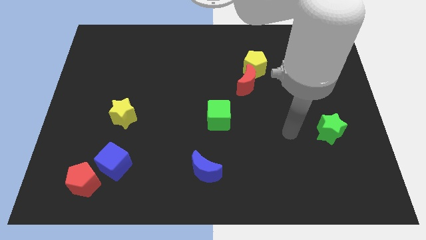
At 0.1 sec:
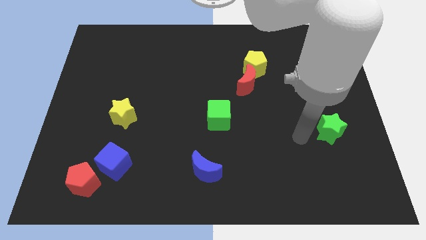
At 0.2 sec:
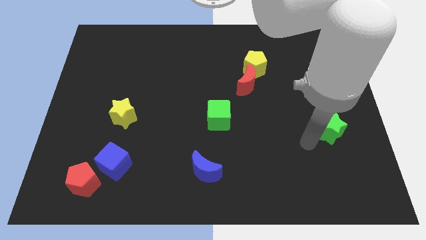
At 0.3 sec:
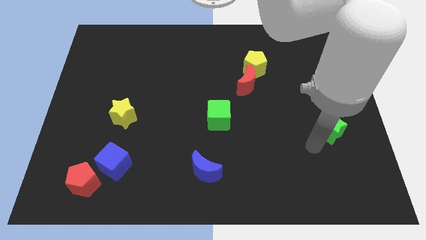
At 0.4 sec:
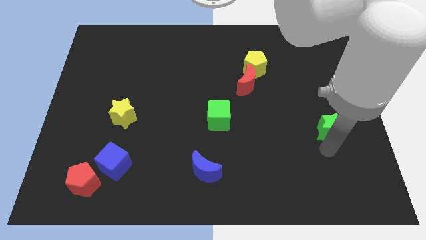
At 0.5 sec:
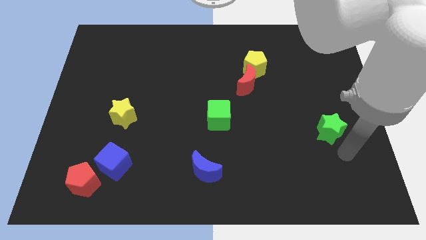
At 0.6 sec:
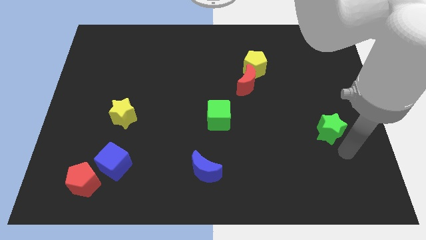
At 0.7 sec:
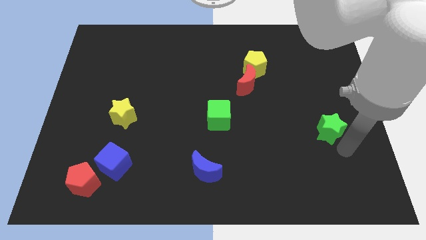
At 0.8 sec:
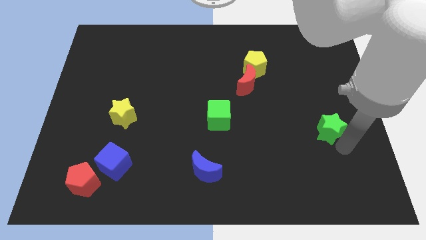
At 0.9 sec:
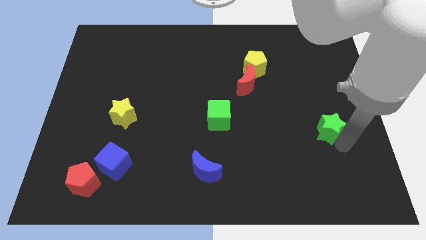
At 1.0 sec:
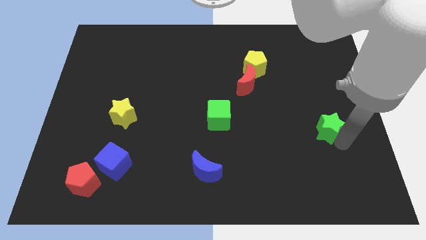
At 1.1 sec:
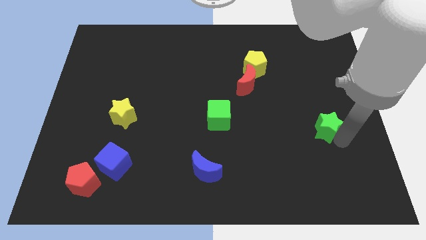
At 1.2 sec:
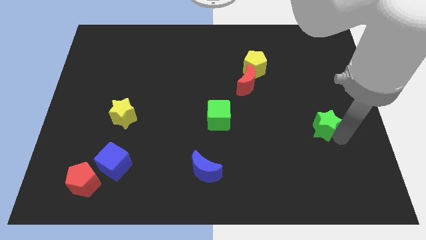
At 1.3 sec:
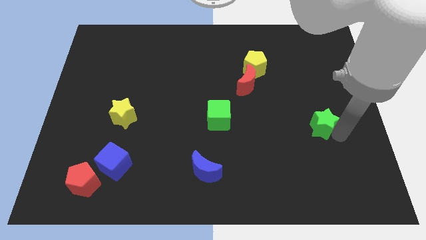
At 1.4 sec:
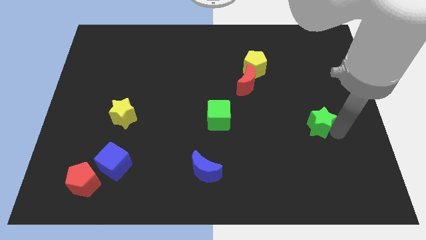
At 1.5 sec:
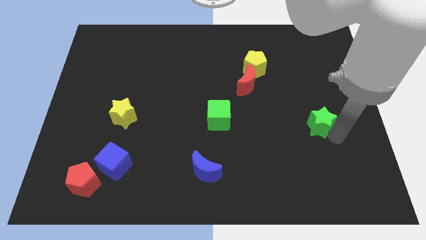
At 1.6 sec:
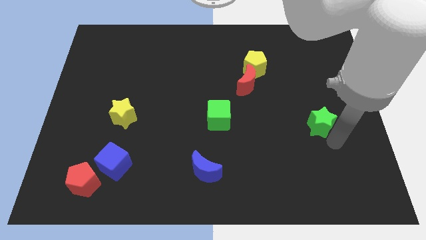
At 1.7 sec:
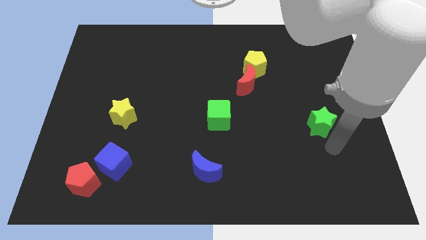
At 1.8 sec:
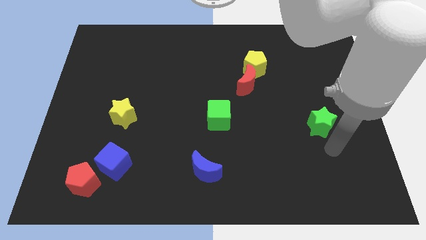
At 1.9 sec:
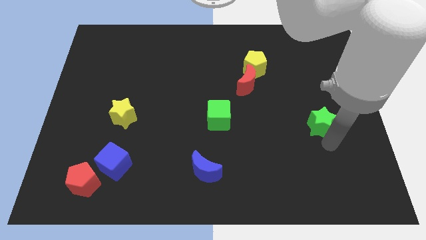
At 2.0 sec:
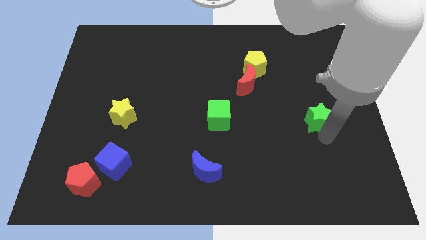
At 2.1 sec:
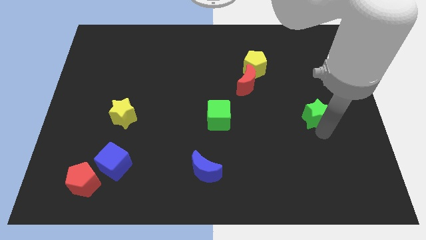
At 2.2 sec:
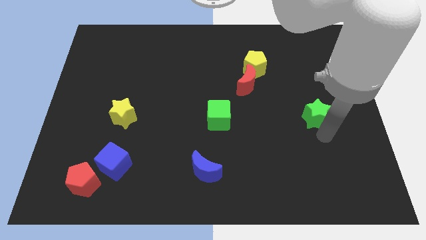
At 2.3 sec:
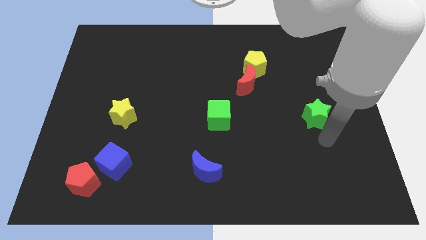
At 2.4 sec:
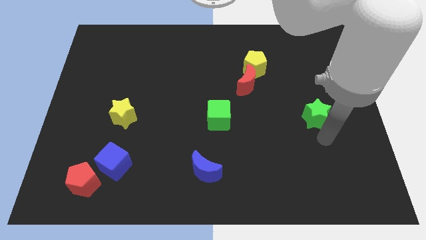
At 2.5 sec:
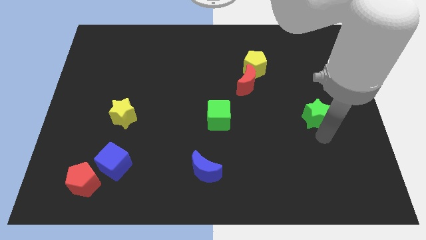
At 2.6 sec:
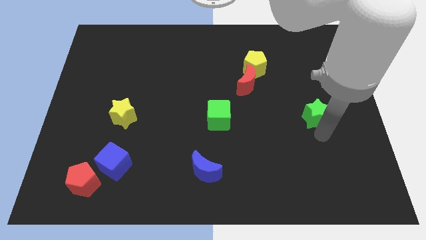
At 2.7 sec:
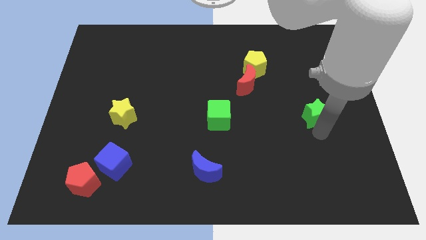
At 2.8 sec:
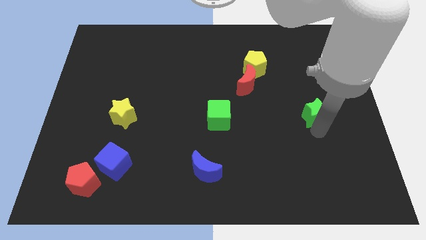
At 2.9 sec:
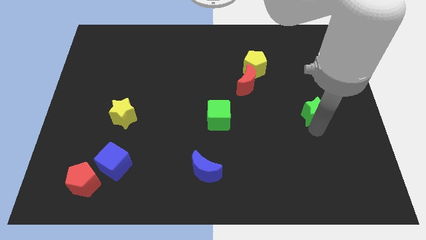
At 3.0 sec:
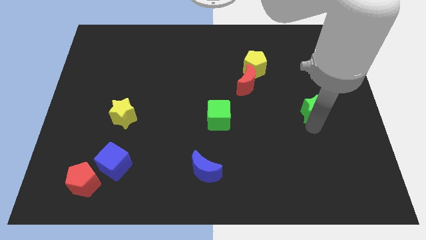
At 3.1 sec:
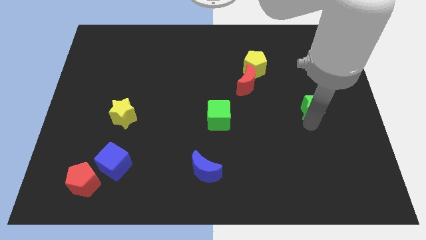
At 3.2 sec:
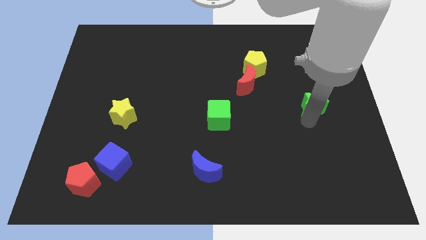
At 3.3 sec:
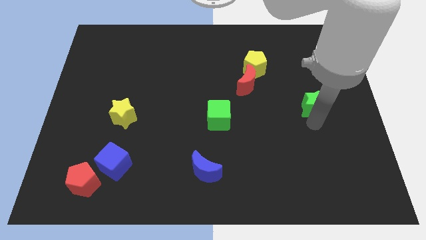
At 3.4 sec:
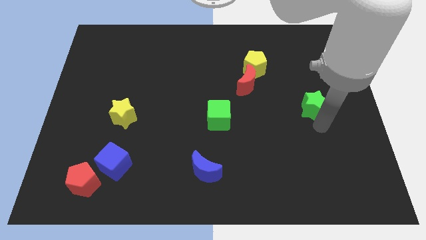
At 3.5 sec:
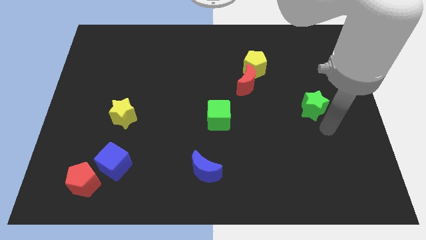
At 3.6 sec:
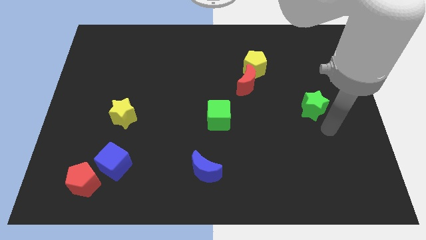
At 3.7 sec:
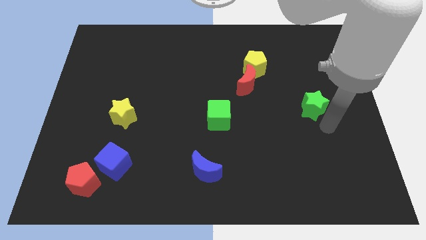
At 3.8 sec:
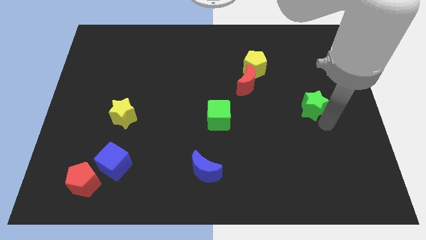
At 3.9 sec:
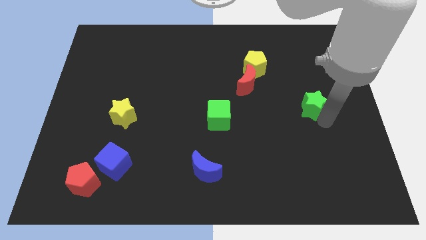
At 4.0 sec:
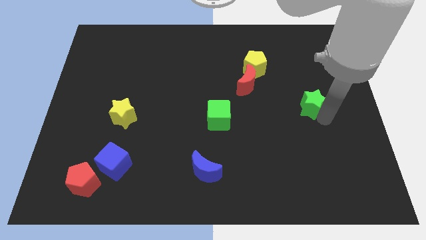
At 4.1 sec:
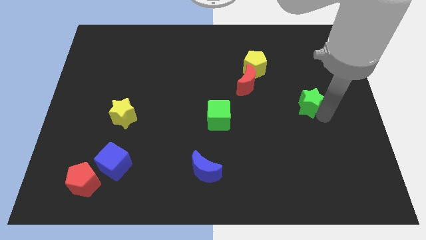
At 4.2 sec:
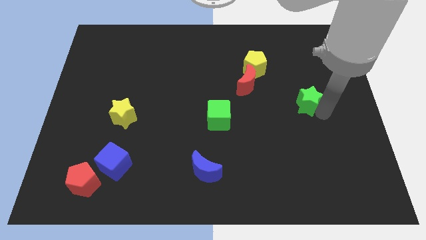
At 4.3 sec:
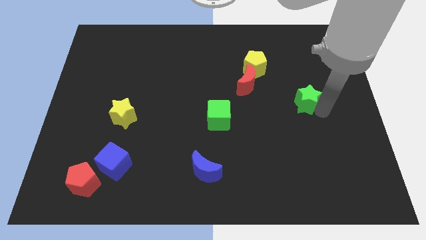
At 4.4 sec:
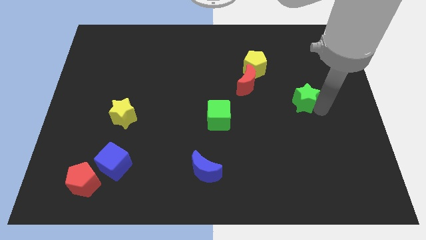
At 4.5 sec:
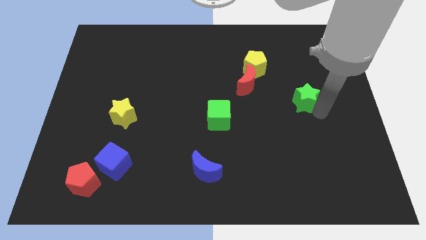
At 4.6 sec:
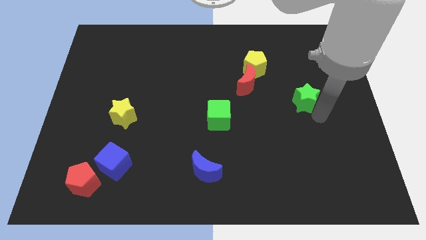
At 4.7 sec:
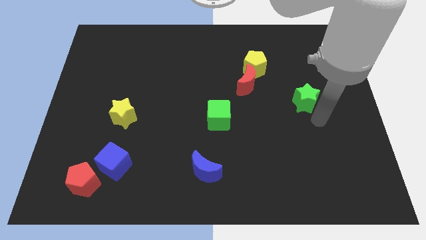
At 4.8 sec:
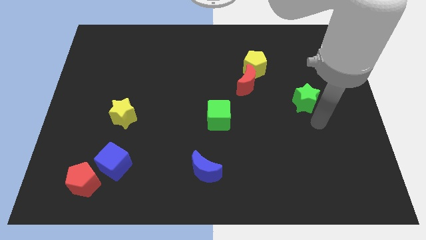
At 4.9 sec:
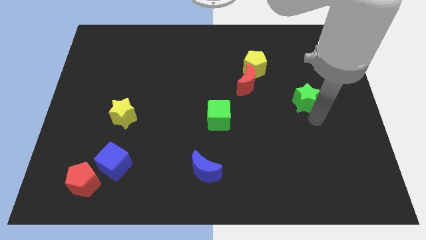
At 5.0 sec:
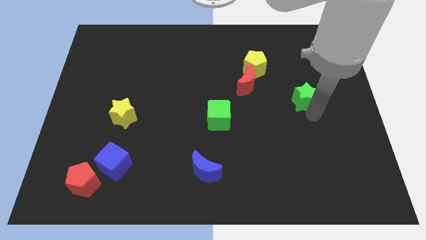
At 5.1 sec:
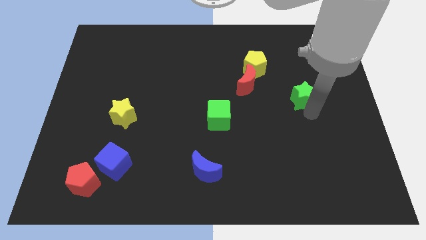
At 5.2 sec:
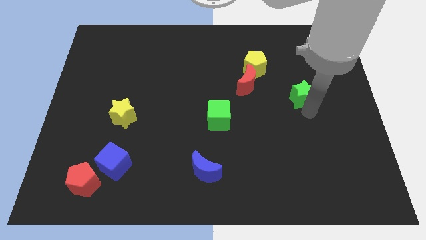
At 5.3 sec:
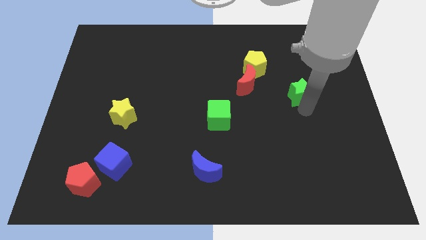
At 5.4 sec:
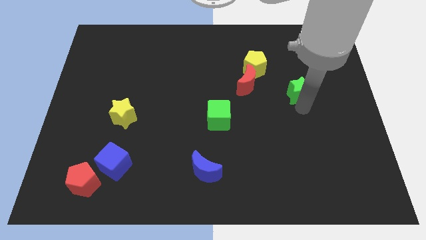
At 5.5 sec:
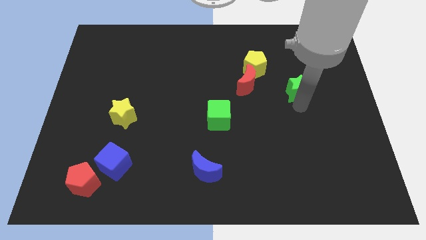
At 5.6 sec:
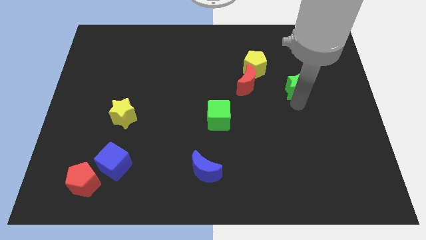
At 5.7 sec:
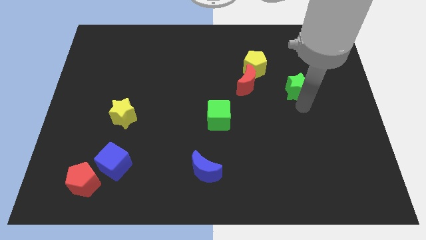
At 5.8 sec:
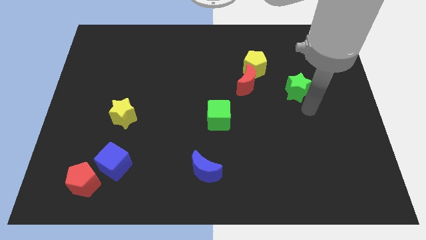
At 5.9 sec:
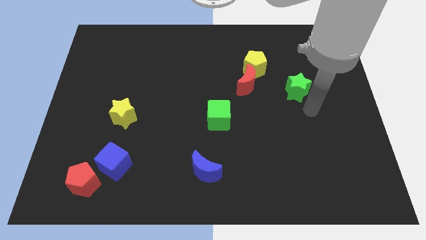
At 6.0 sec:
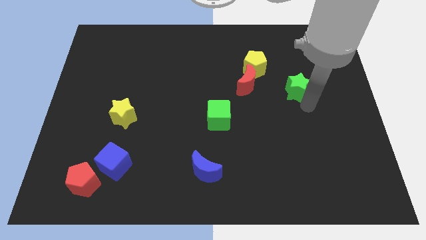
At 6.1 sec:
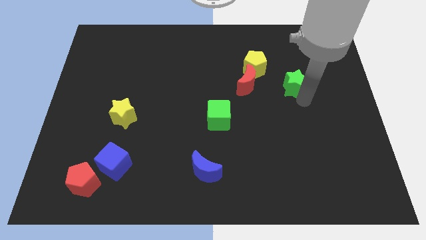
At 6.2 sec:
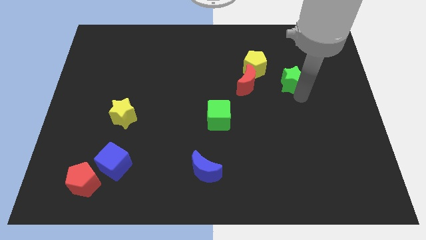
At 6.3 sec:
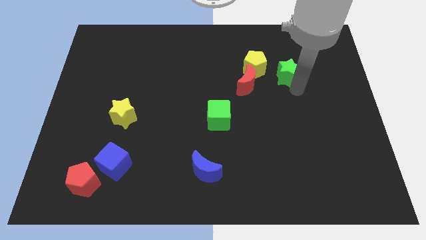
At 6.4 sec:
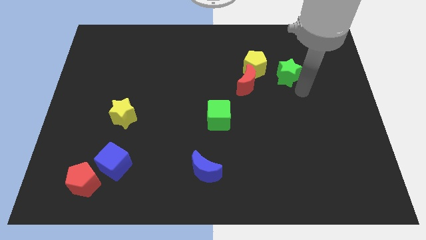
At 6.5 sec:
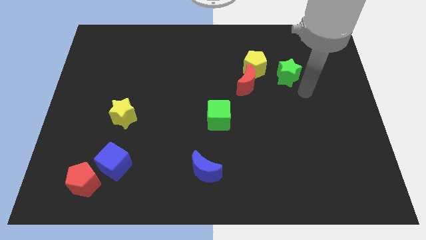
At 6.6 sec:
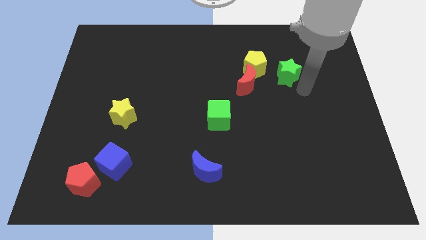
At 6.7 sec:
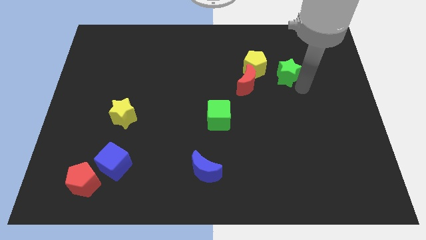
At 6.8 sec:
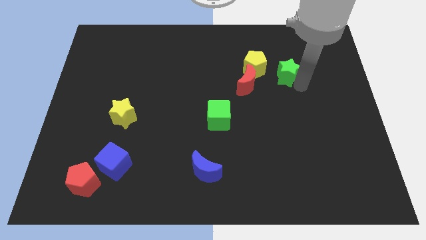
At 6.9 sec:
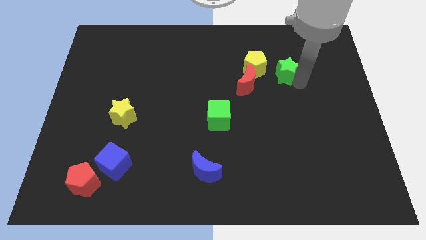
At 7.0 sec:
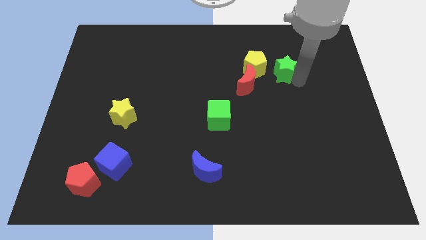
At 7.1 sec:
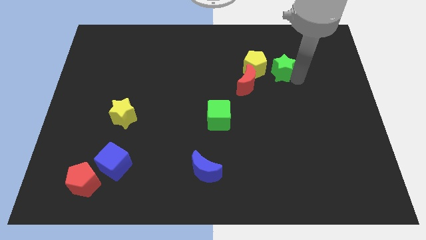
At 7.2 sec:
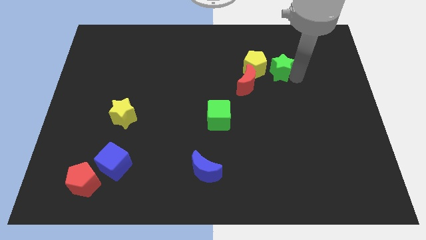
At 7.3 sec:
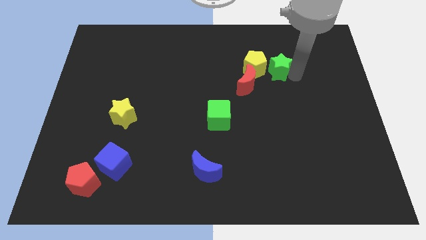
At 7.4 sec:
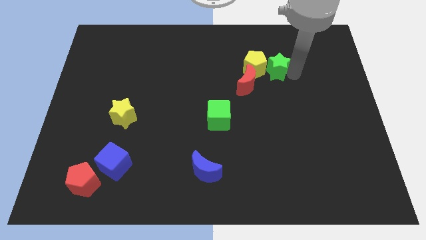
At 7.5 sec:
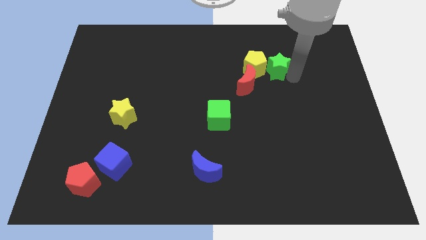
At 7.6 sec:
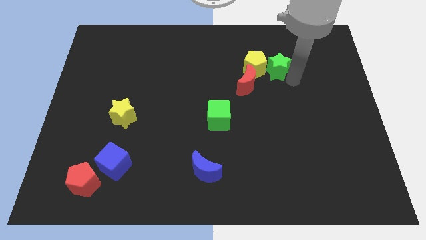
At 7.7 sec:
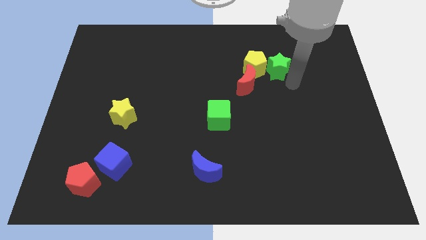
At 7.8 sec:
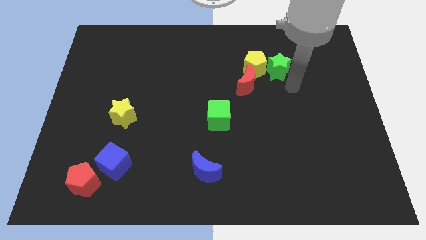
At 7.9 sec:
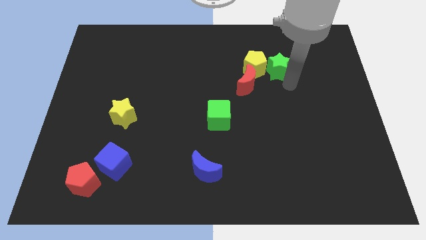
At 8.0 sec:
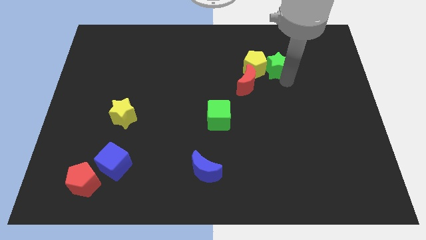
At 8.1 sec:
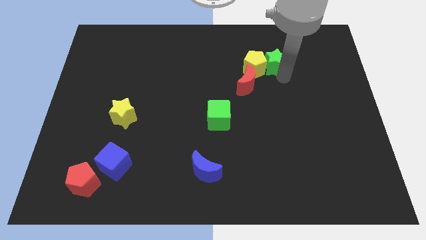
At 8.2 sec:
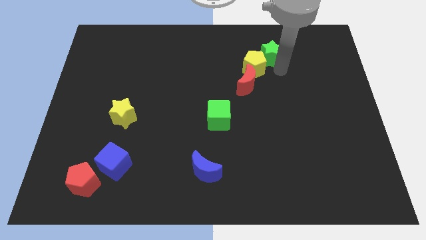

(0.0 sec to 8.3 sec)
move the green star upwards and left diagonally
